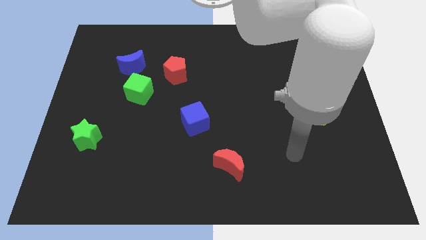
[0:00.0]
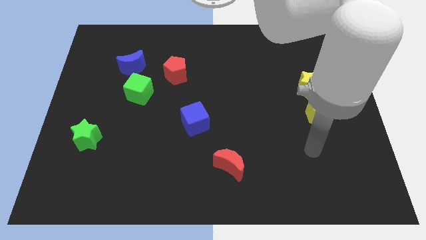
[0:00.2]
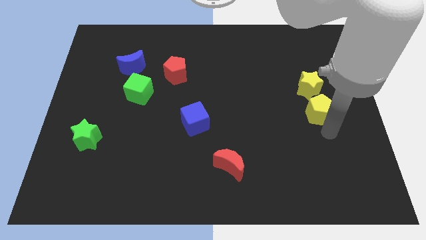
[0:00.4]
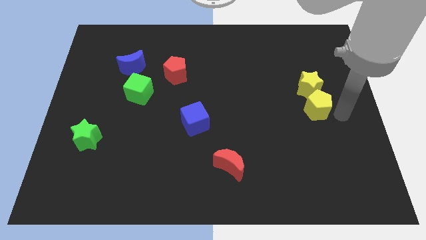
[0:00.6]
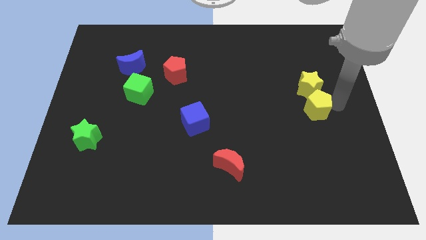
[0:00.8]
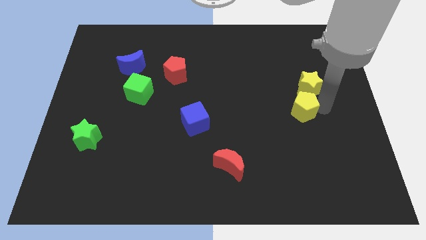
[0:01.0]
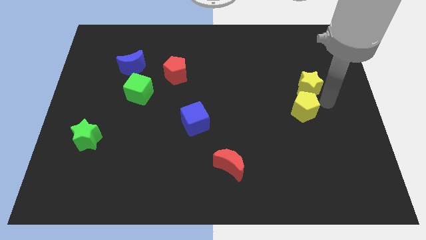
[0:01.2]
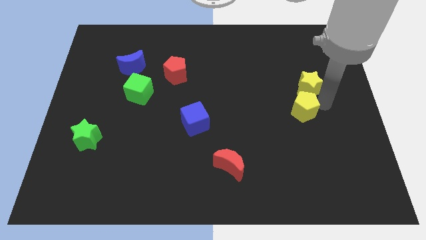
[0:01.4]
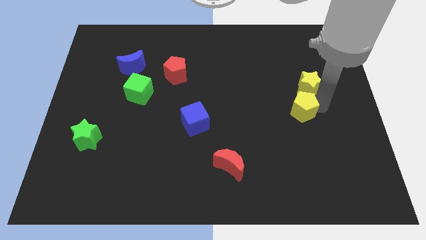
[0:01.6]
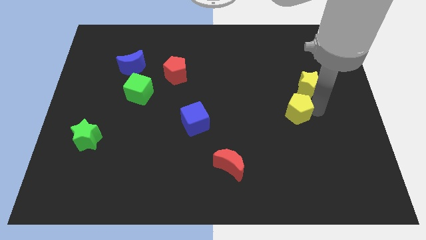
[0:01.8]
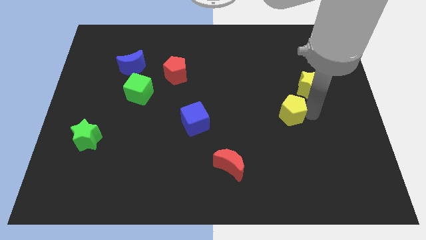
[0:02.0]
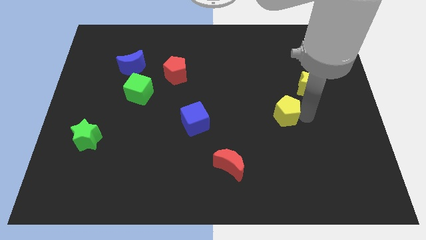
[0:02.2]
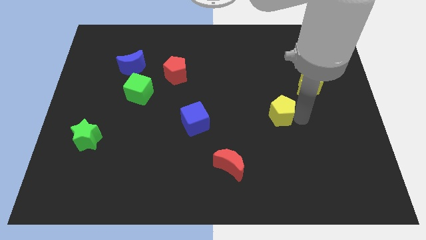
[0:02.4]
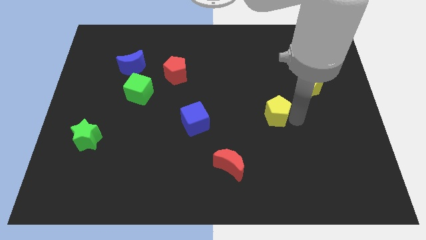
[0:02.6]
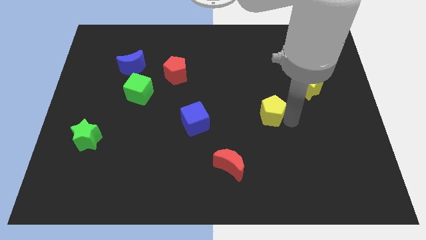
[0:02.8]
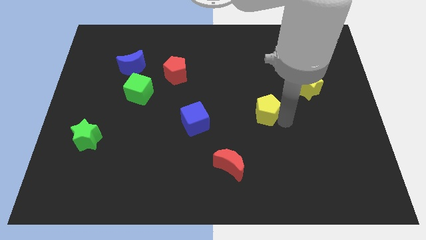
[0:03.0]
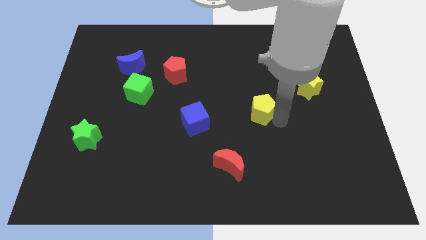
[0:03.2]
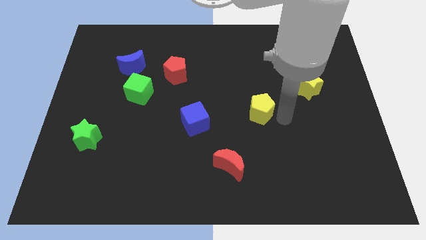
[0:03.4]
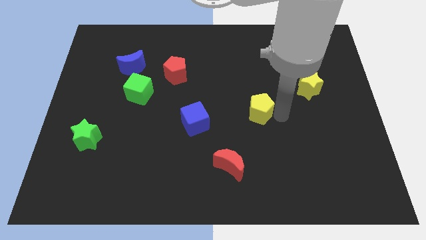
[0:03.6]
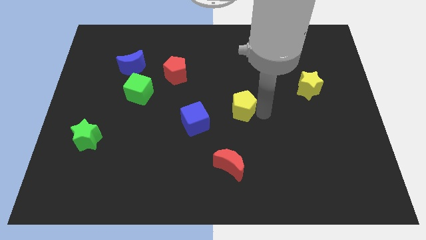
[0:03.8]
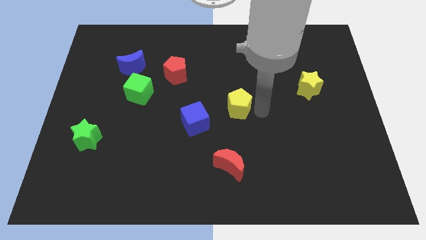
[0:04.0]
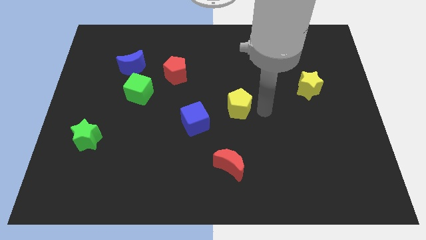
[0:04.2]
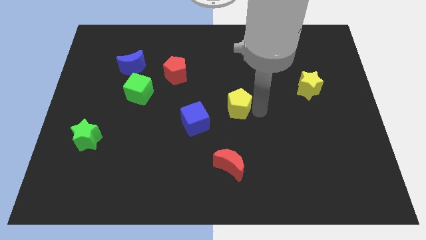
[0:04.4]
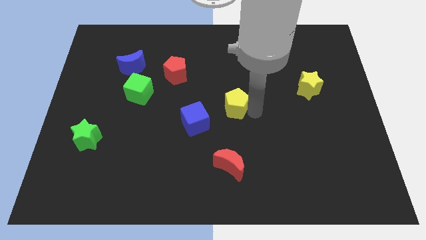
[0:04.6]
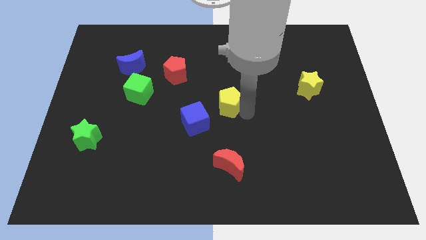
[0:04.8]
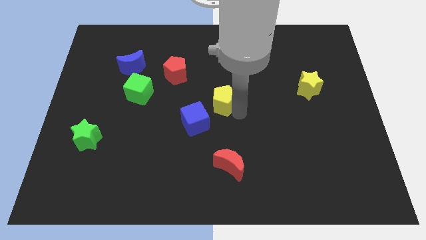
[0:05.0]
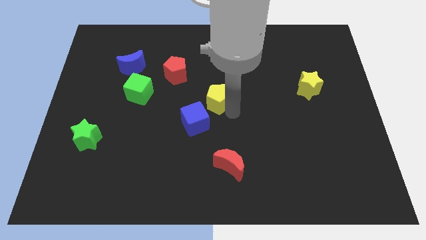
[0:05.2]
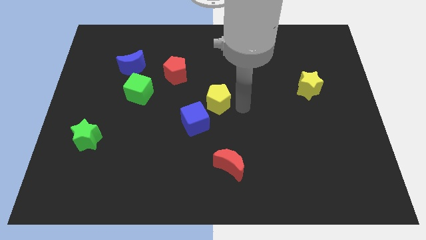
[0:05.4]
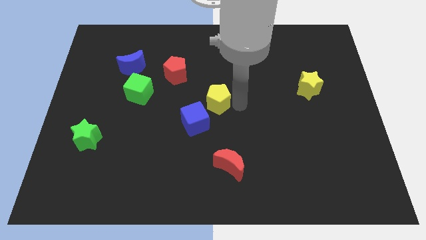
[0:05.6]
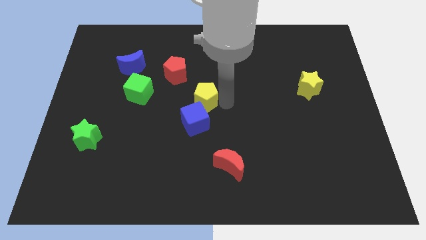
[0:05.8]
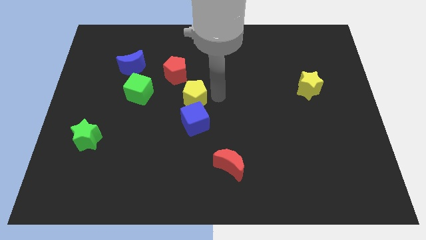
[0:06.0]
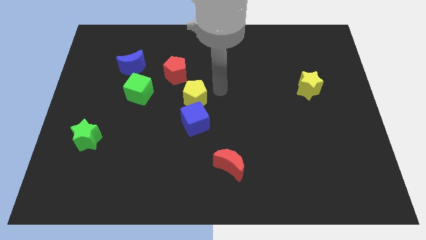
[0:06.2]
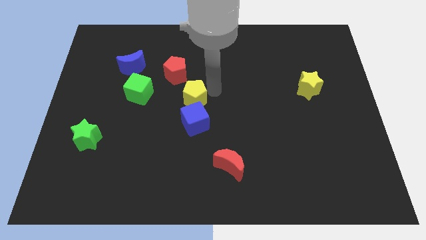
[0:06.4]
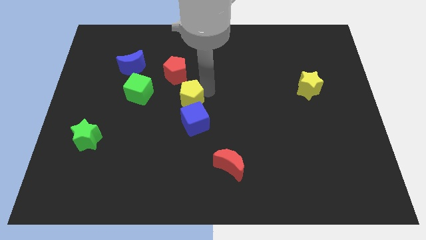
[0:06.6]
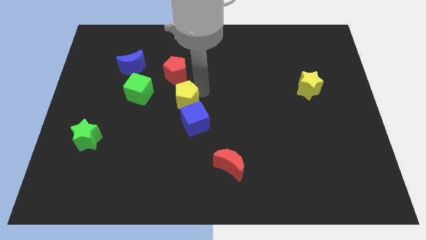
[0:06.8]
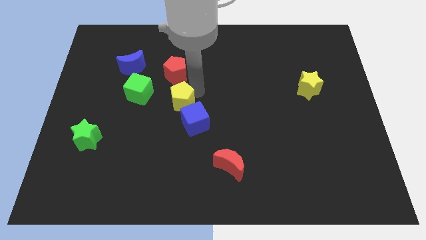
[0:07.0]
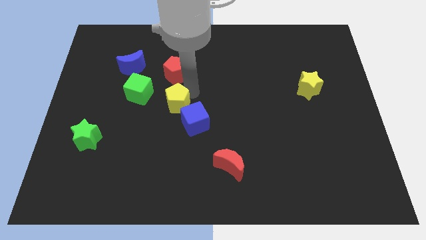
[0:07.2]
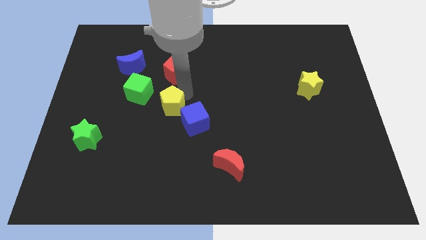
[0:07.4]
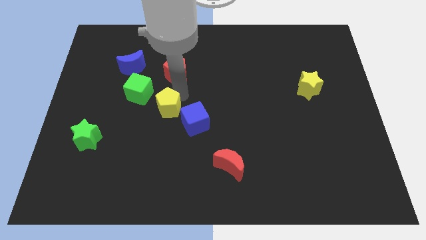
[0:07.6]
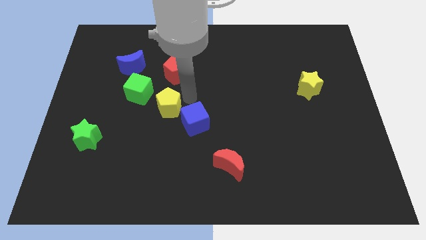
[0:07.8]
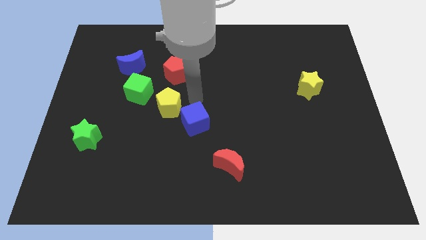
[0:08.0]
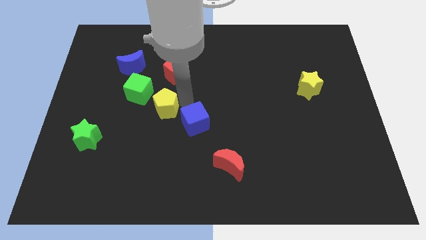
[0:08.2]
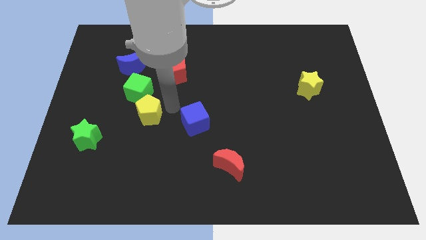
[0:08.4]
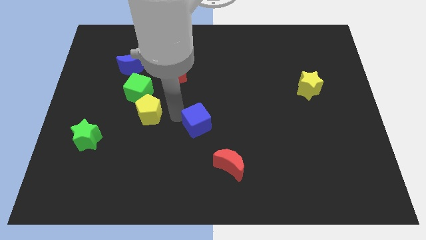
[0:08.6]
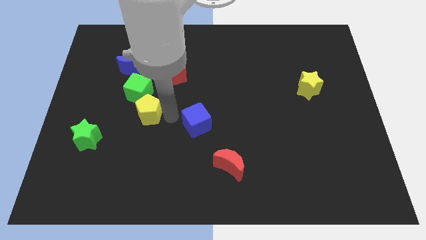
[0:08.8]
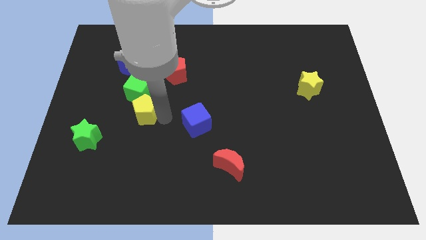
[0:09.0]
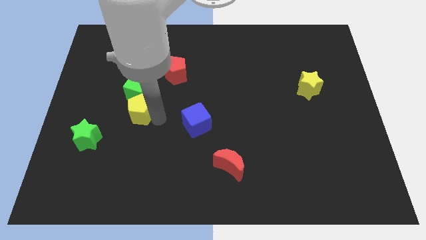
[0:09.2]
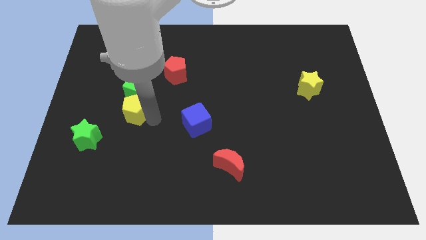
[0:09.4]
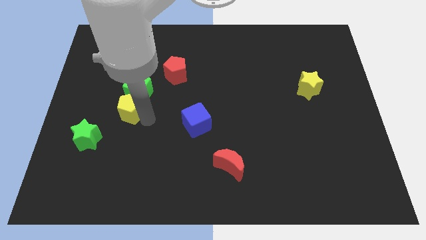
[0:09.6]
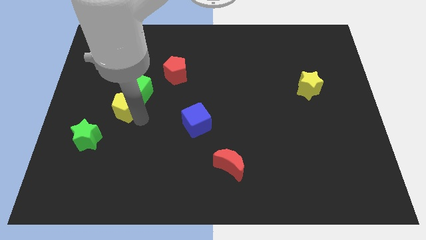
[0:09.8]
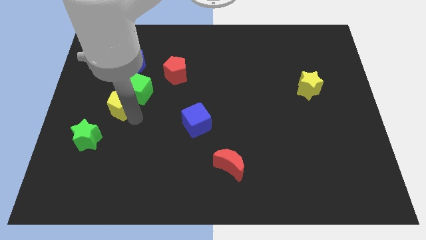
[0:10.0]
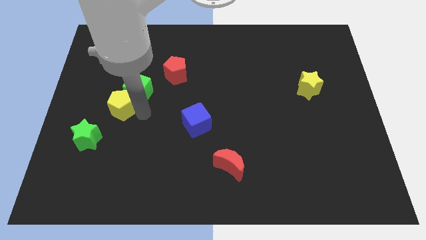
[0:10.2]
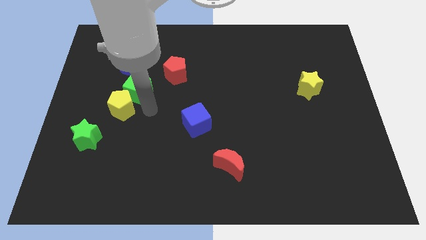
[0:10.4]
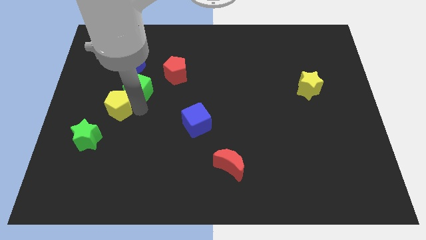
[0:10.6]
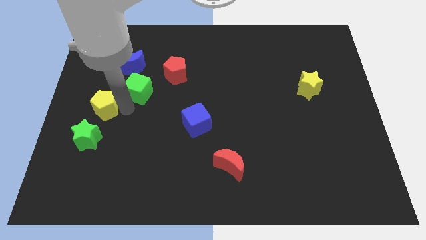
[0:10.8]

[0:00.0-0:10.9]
move the yellow pentagon to the center left

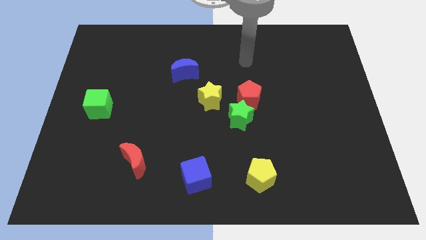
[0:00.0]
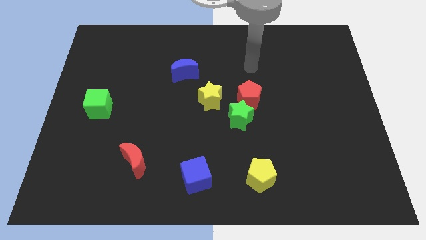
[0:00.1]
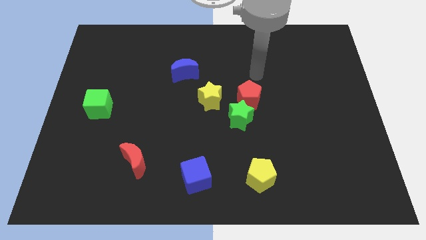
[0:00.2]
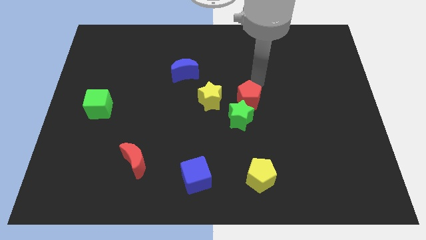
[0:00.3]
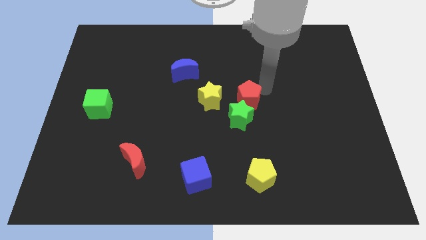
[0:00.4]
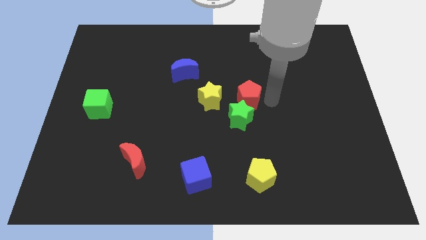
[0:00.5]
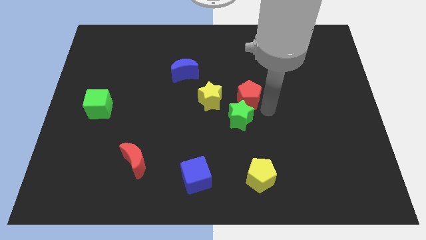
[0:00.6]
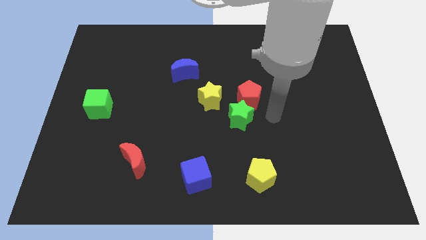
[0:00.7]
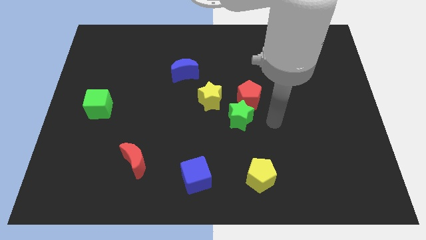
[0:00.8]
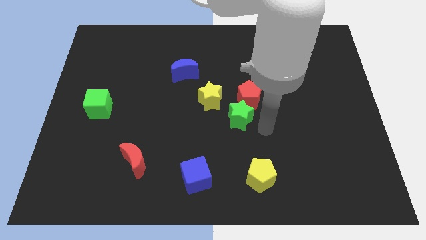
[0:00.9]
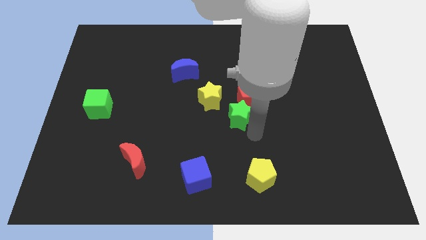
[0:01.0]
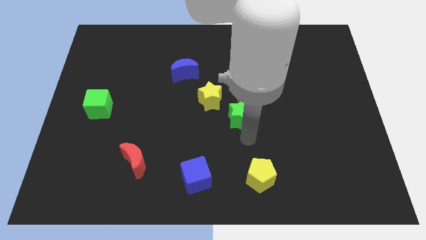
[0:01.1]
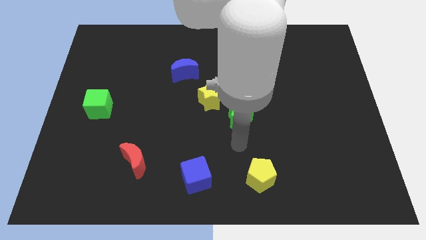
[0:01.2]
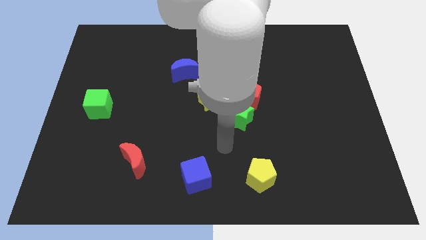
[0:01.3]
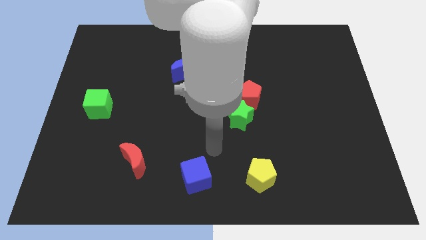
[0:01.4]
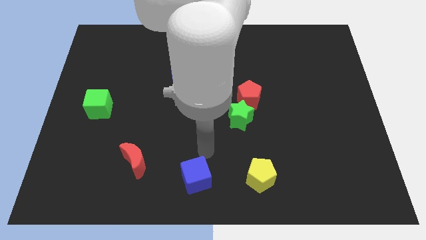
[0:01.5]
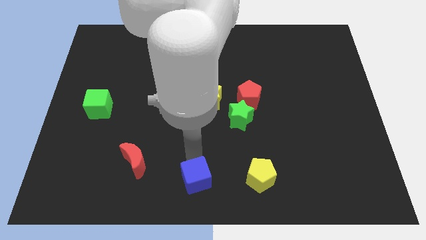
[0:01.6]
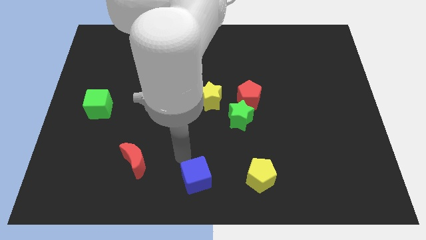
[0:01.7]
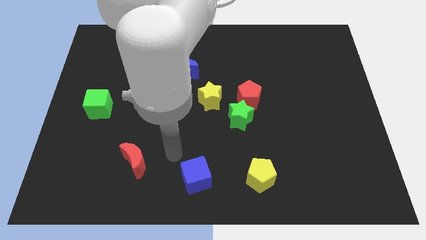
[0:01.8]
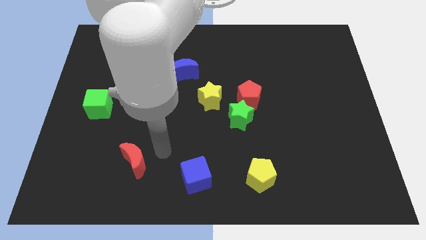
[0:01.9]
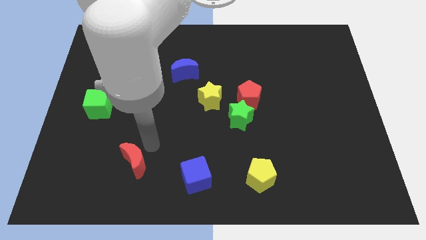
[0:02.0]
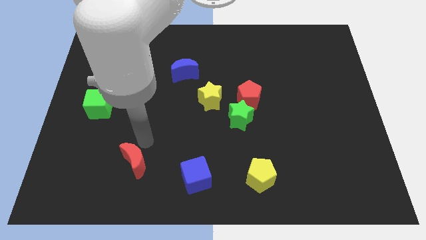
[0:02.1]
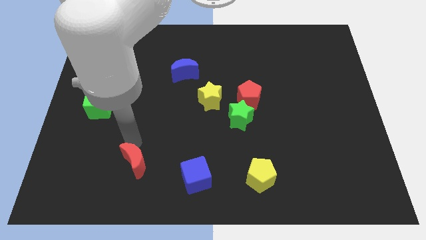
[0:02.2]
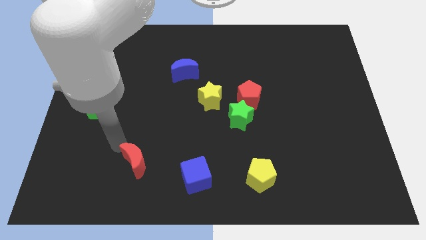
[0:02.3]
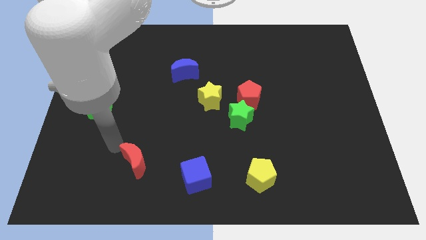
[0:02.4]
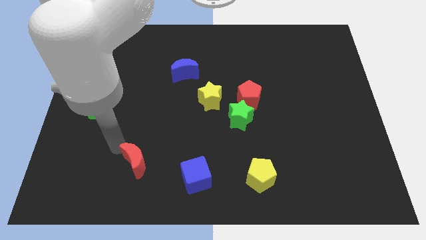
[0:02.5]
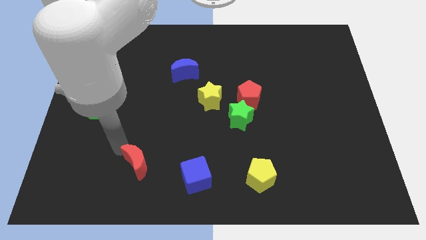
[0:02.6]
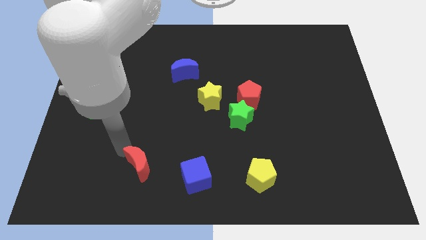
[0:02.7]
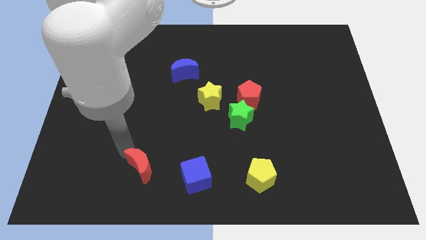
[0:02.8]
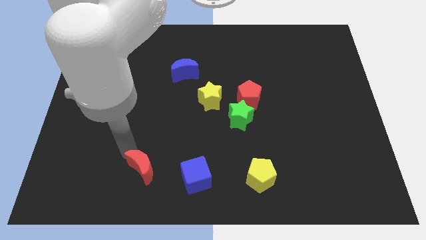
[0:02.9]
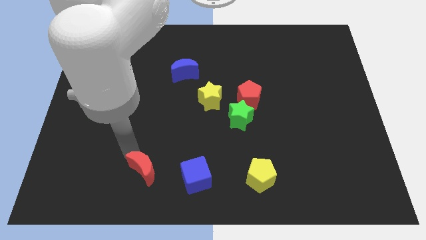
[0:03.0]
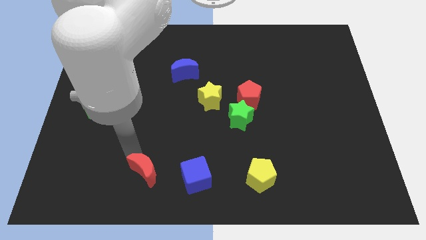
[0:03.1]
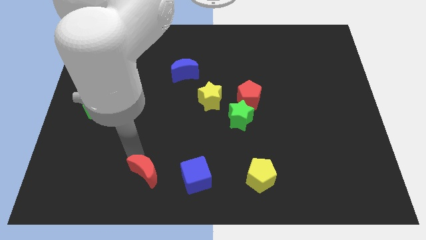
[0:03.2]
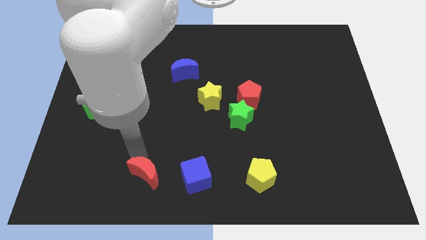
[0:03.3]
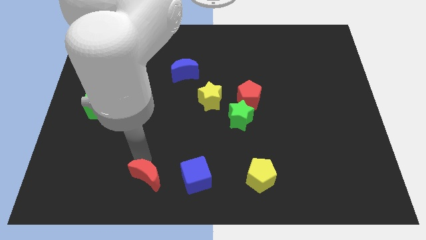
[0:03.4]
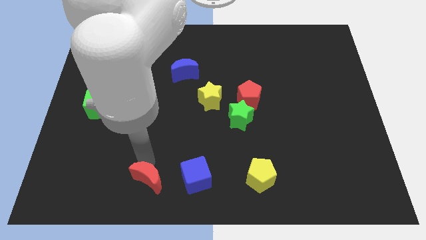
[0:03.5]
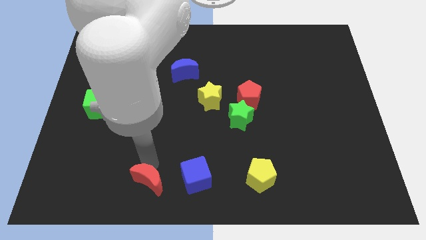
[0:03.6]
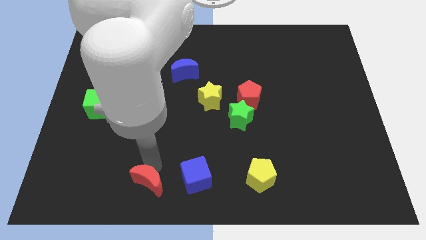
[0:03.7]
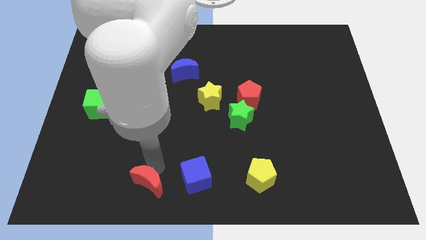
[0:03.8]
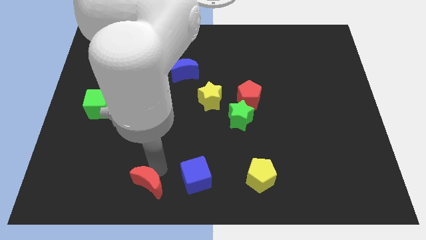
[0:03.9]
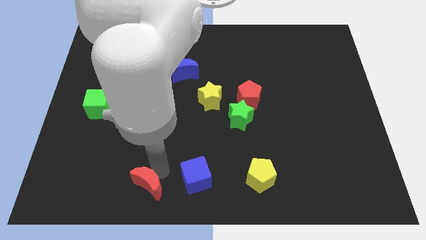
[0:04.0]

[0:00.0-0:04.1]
push the red moon to the bottom side
